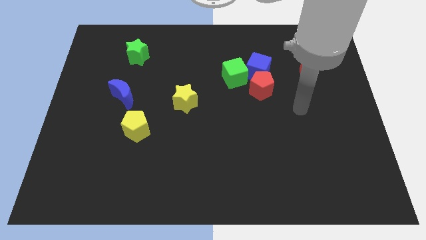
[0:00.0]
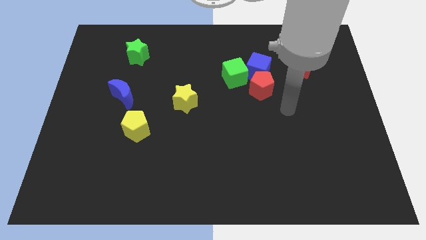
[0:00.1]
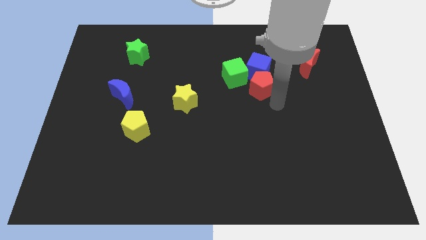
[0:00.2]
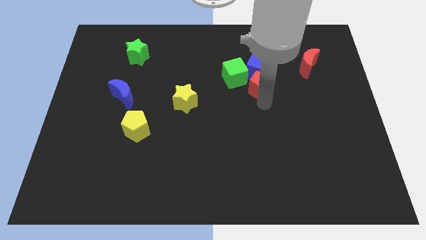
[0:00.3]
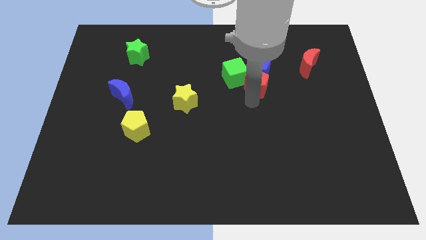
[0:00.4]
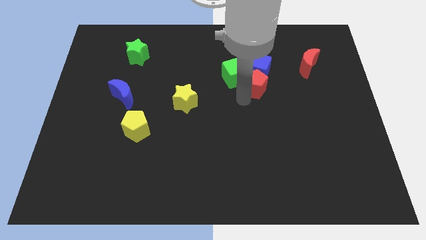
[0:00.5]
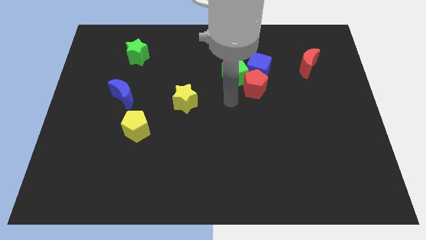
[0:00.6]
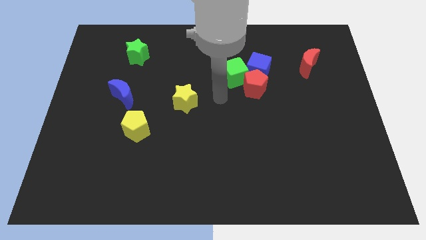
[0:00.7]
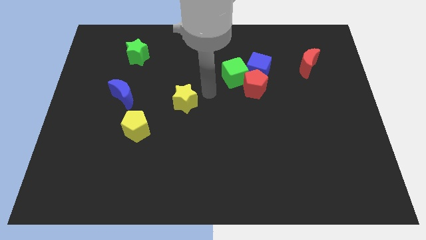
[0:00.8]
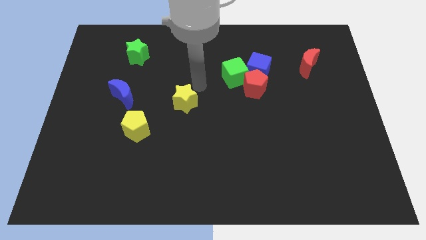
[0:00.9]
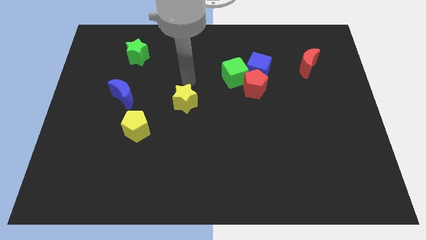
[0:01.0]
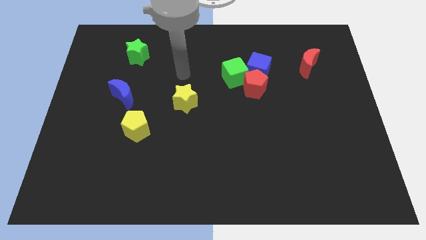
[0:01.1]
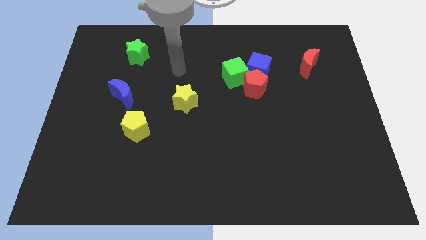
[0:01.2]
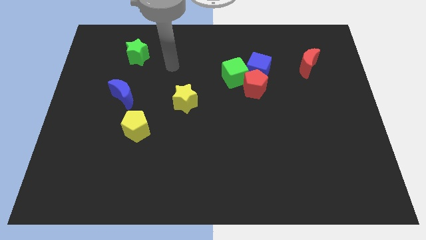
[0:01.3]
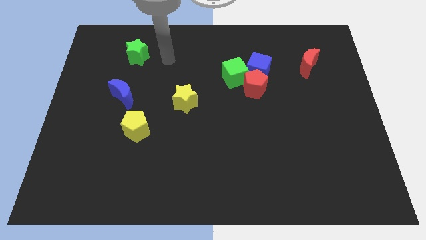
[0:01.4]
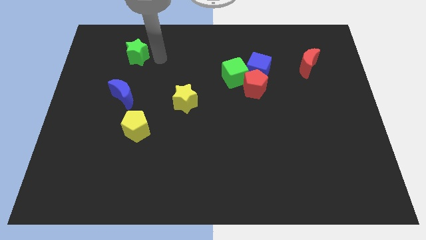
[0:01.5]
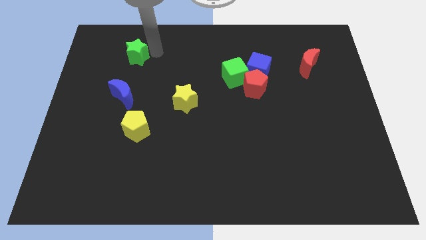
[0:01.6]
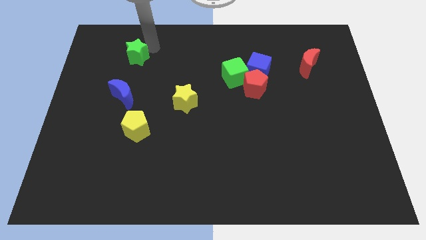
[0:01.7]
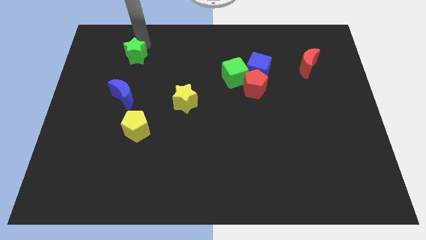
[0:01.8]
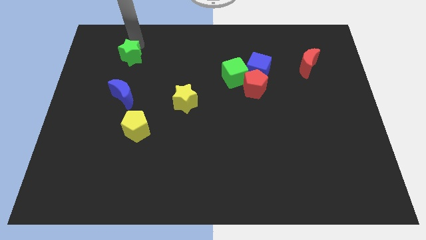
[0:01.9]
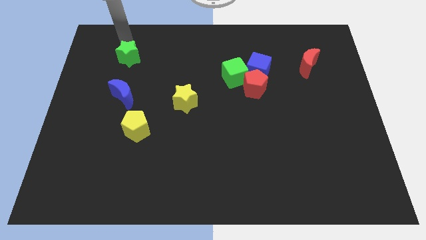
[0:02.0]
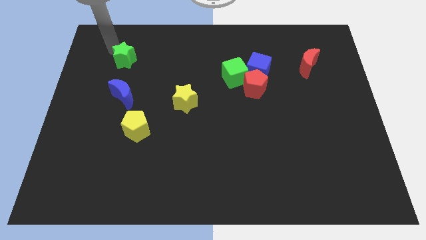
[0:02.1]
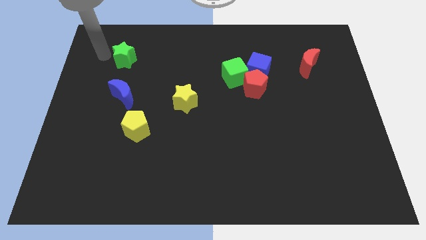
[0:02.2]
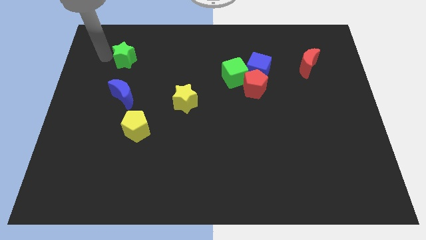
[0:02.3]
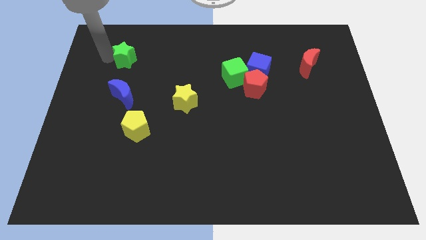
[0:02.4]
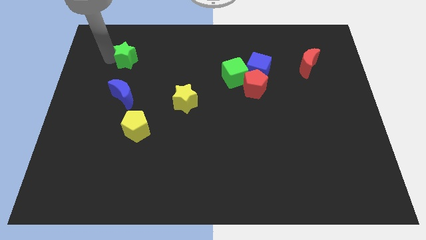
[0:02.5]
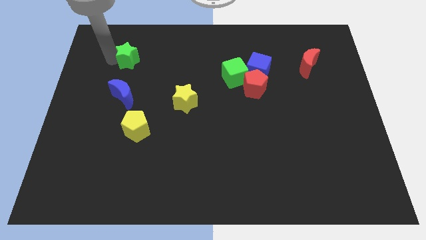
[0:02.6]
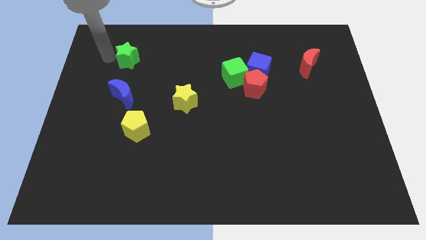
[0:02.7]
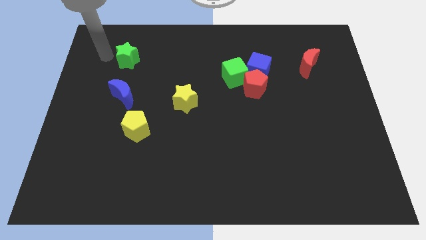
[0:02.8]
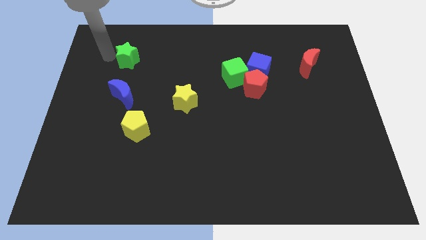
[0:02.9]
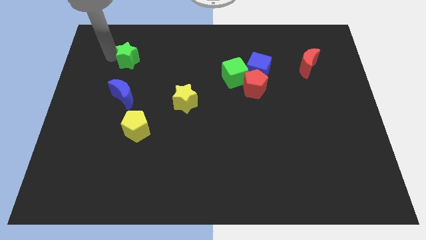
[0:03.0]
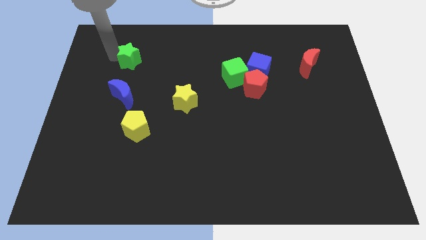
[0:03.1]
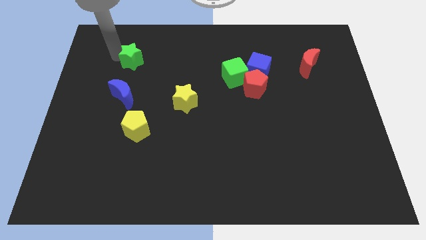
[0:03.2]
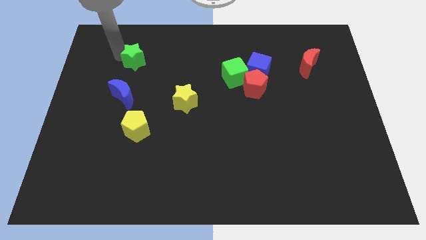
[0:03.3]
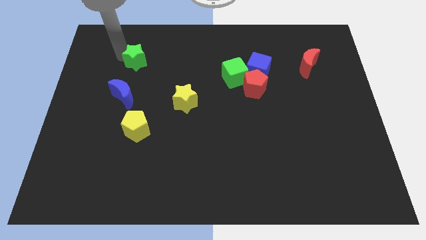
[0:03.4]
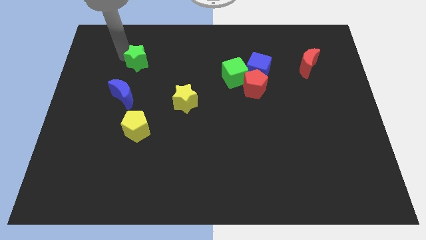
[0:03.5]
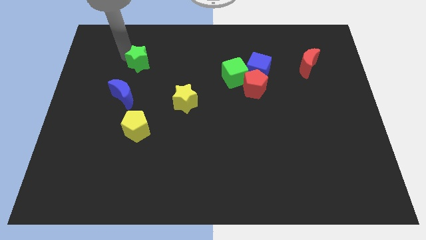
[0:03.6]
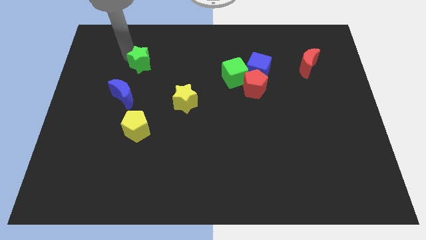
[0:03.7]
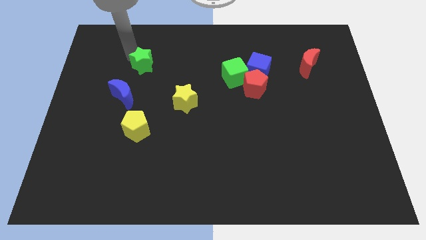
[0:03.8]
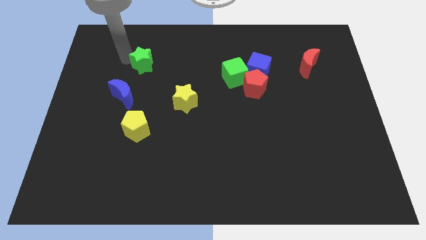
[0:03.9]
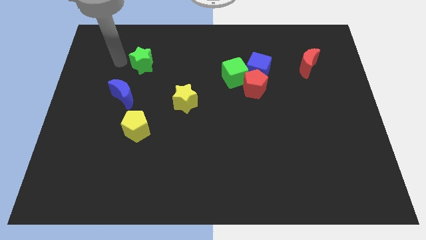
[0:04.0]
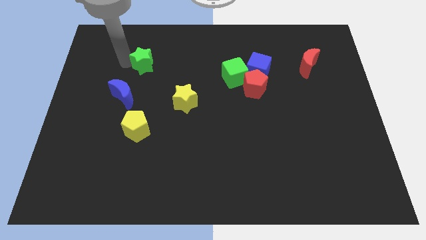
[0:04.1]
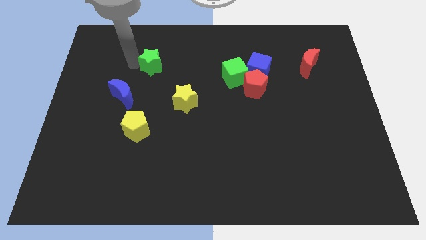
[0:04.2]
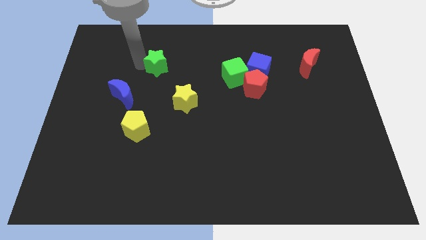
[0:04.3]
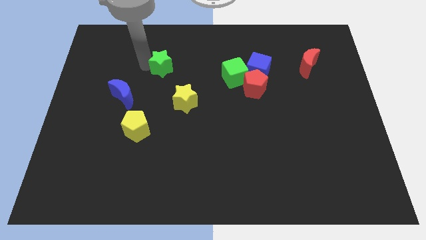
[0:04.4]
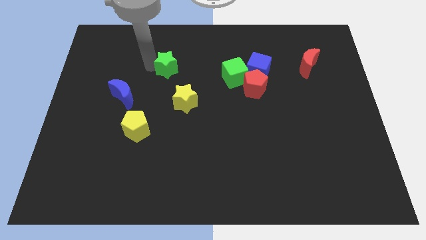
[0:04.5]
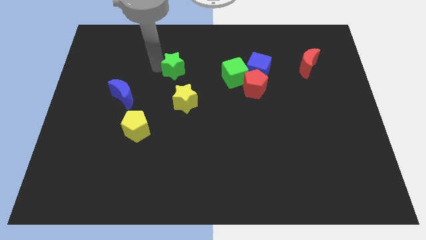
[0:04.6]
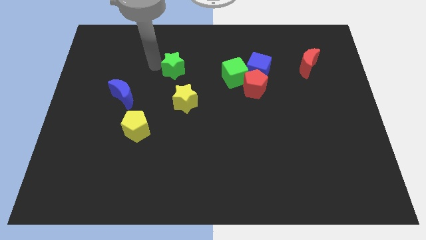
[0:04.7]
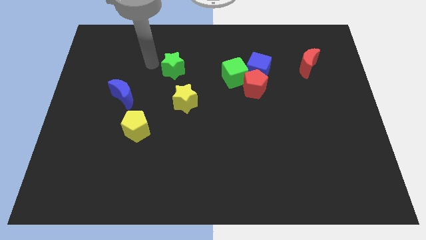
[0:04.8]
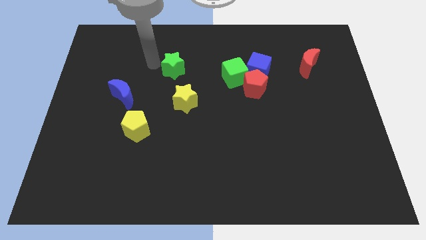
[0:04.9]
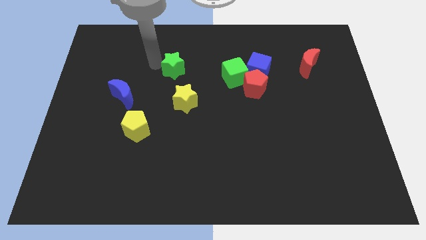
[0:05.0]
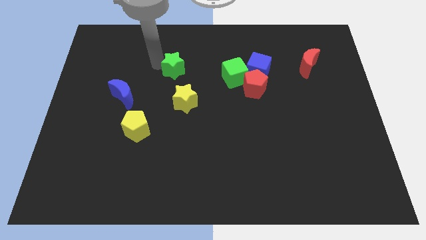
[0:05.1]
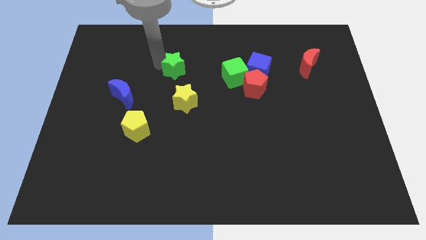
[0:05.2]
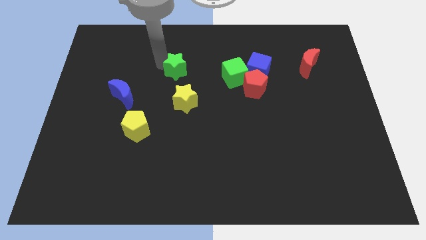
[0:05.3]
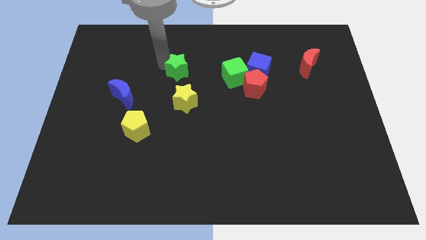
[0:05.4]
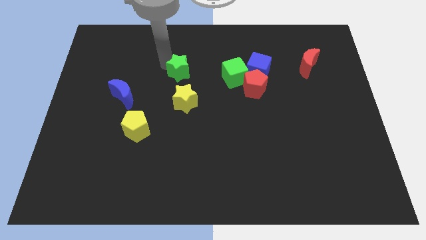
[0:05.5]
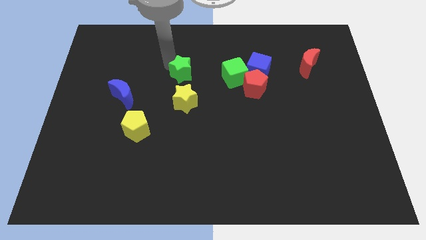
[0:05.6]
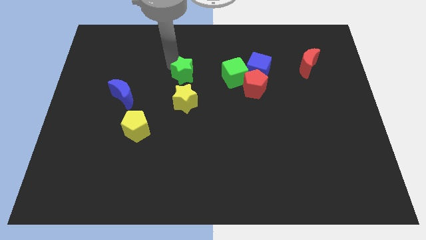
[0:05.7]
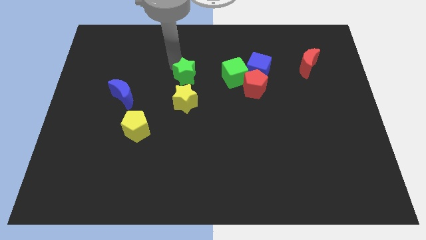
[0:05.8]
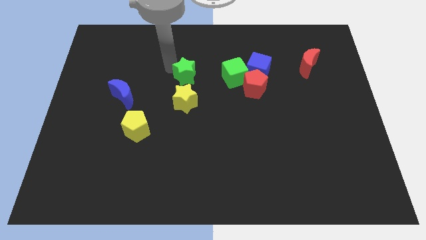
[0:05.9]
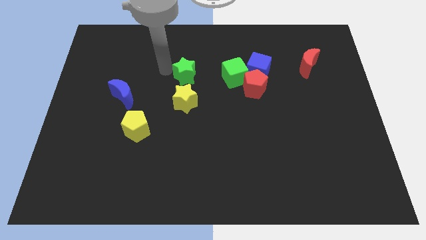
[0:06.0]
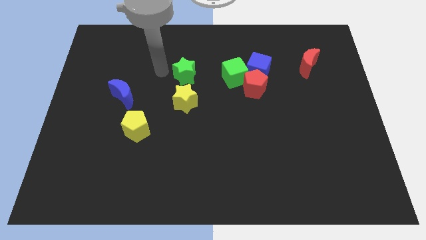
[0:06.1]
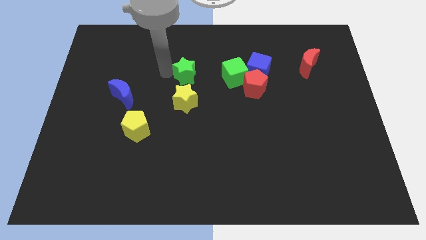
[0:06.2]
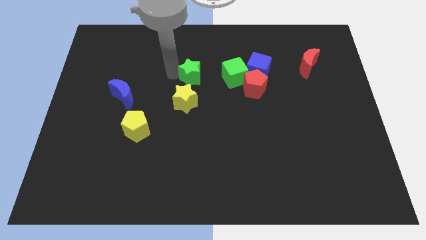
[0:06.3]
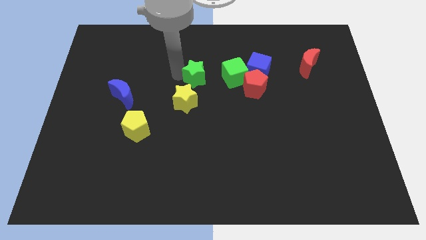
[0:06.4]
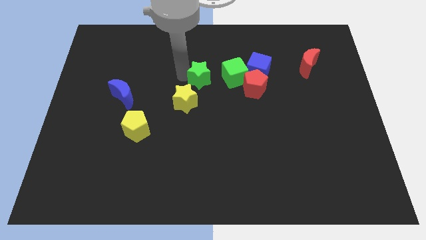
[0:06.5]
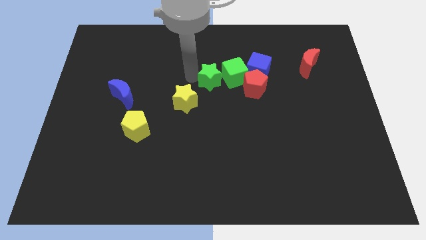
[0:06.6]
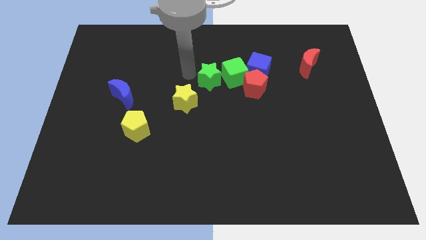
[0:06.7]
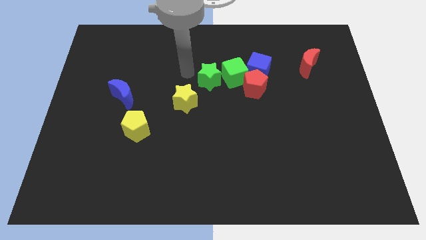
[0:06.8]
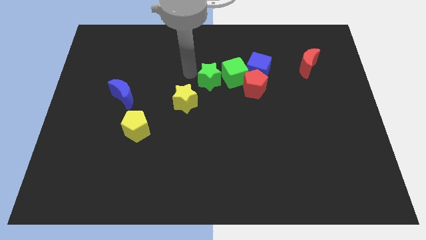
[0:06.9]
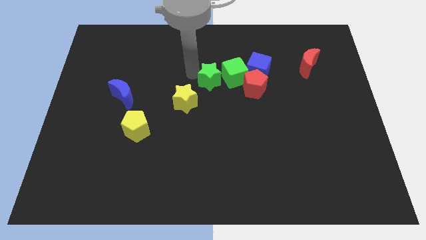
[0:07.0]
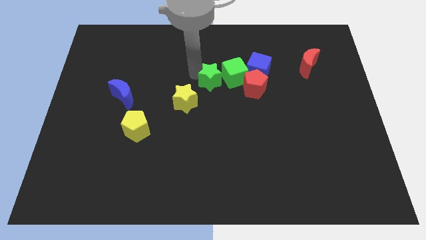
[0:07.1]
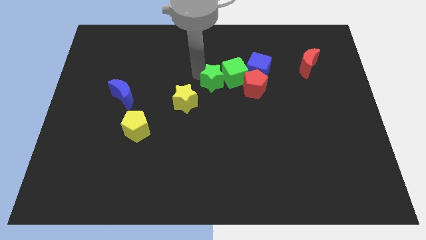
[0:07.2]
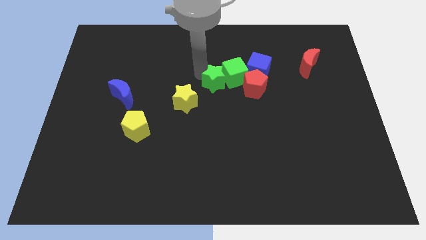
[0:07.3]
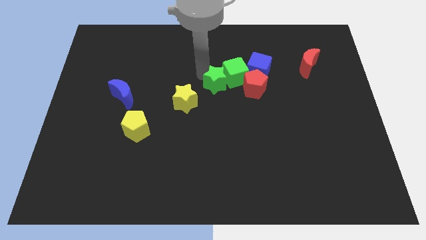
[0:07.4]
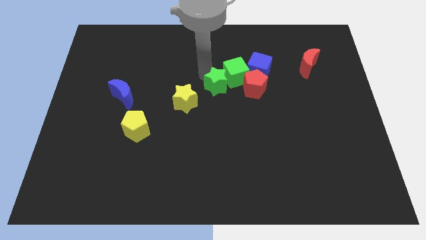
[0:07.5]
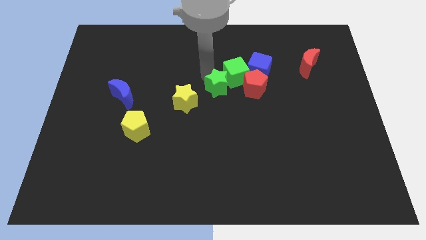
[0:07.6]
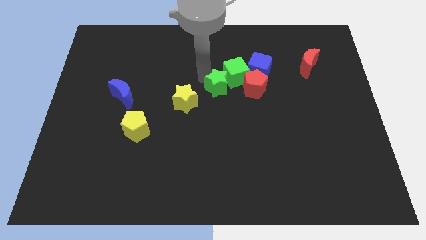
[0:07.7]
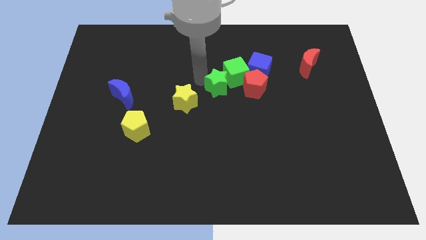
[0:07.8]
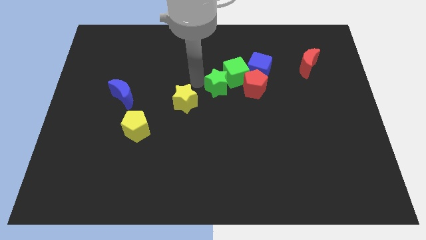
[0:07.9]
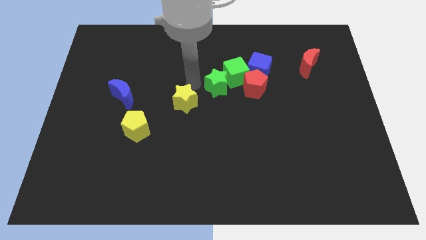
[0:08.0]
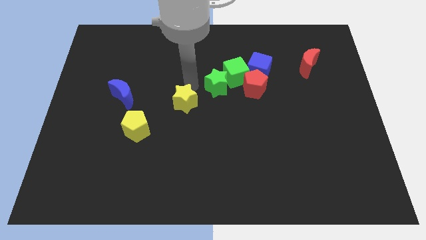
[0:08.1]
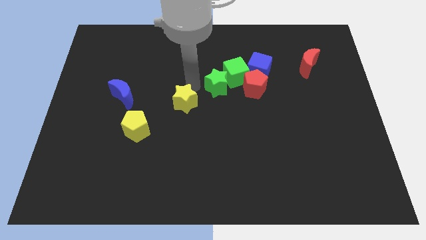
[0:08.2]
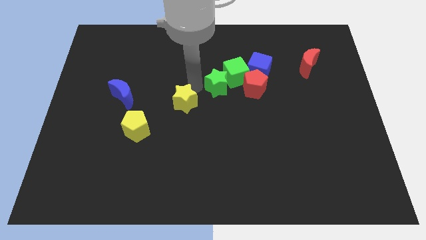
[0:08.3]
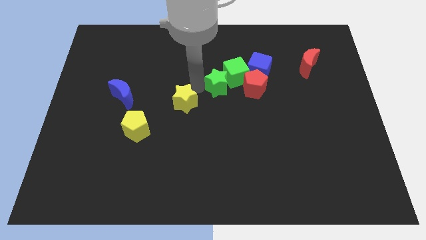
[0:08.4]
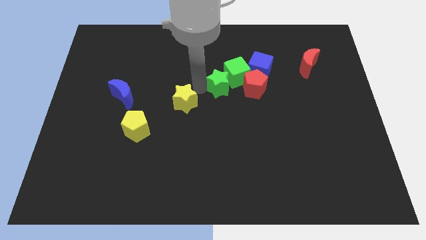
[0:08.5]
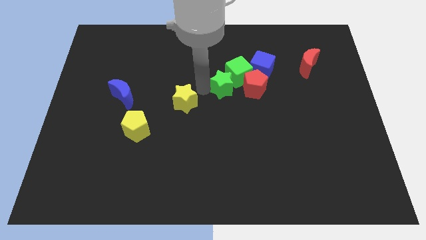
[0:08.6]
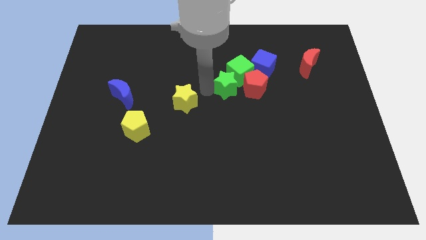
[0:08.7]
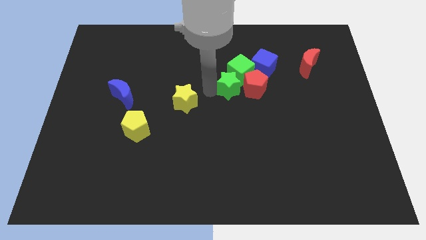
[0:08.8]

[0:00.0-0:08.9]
move the green star close to the red pentagon
